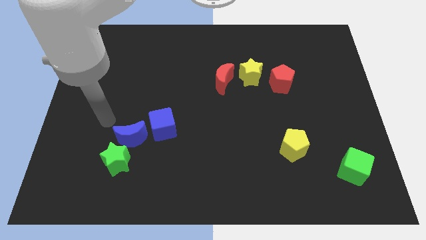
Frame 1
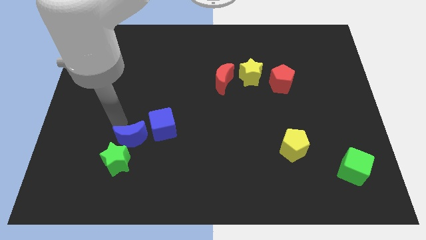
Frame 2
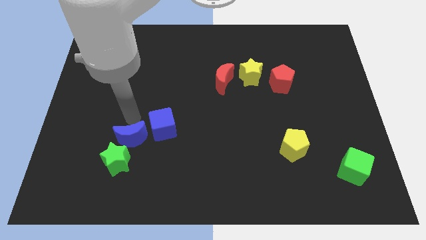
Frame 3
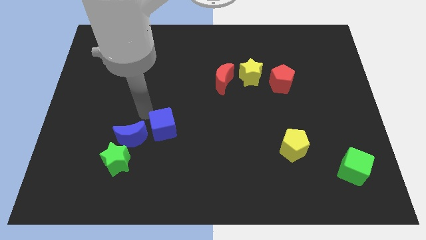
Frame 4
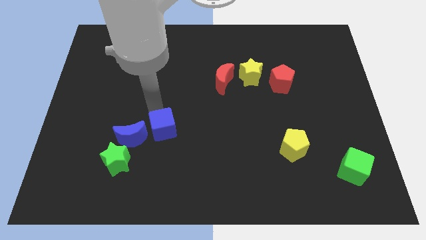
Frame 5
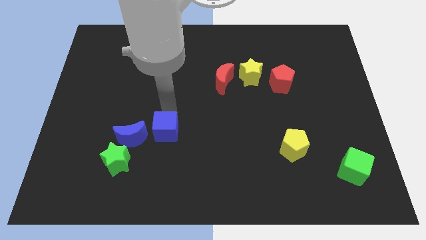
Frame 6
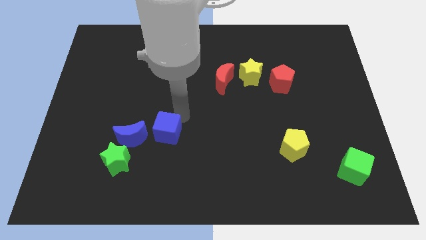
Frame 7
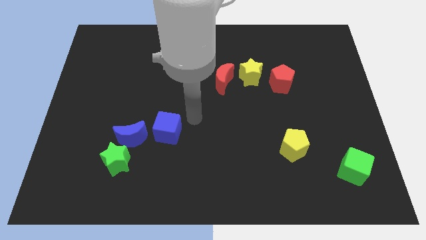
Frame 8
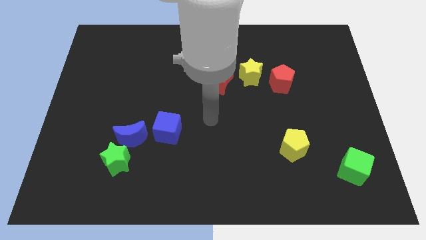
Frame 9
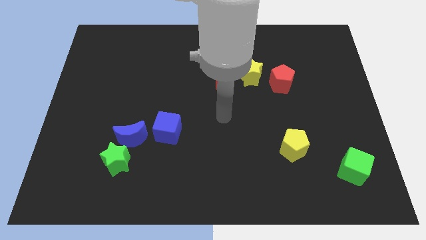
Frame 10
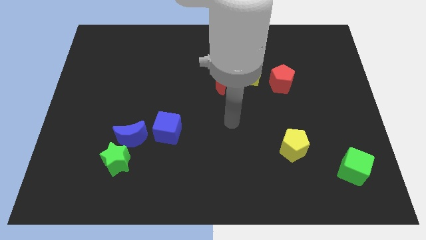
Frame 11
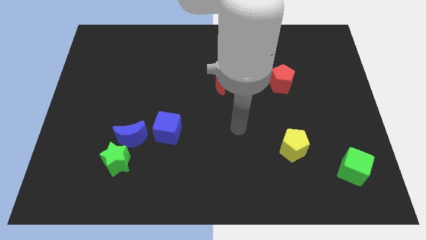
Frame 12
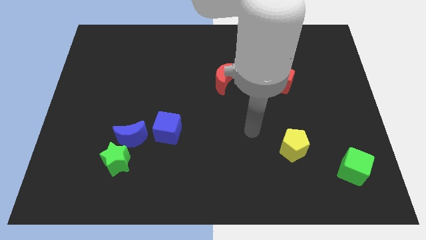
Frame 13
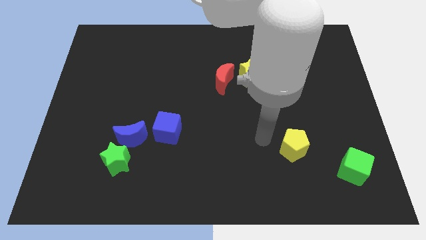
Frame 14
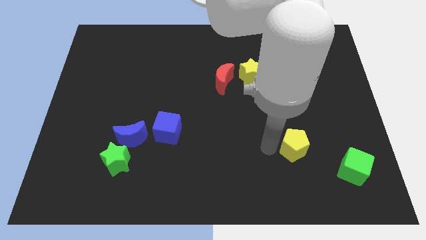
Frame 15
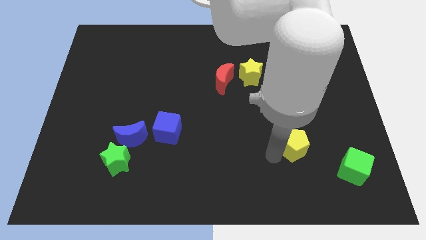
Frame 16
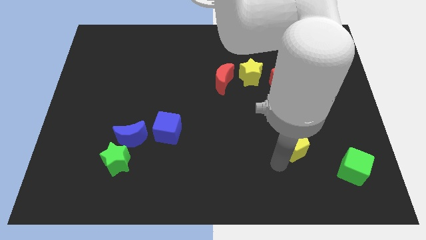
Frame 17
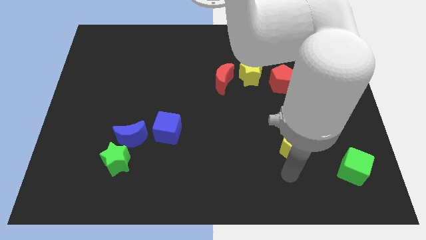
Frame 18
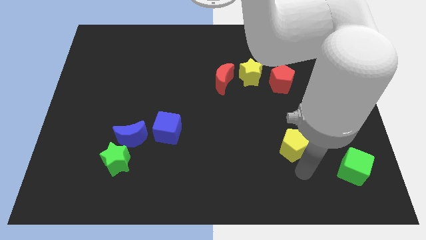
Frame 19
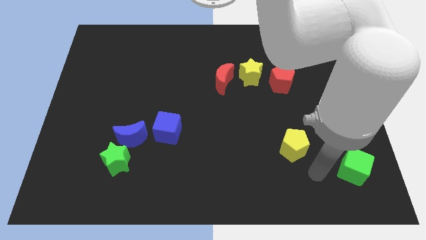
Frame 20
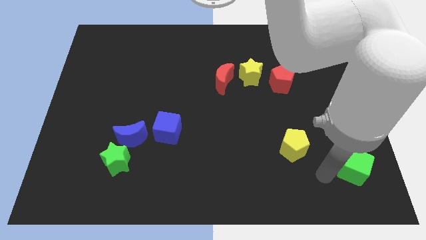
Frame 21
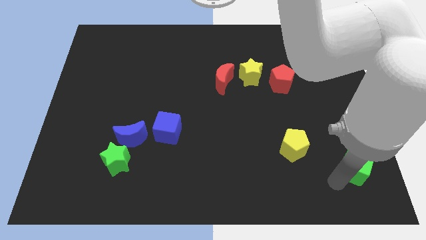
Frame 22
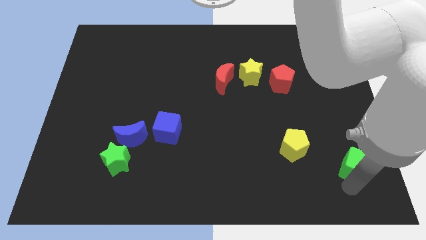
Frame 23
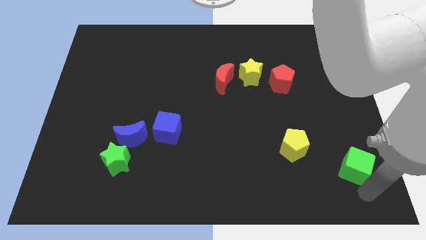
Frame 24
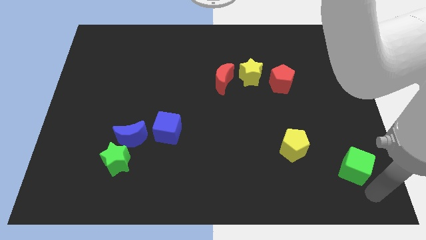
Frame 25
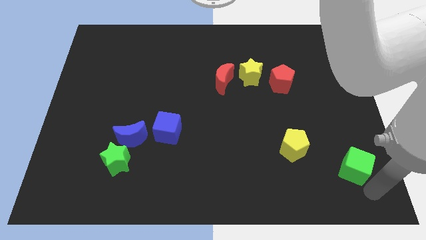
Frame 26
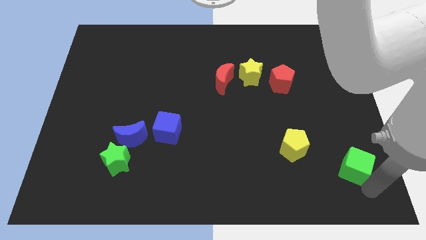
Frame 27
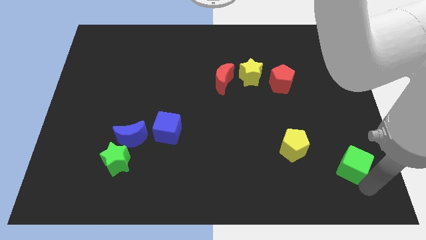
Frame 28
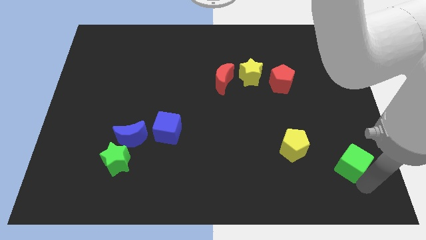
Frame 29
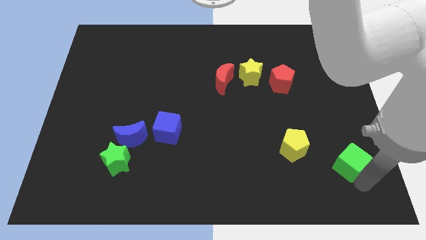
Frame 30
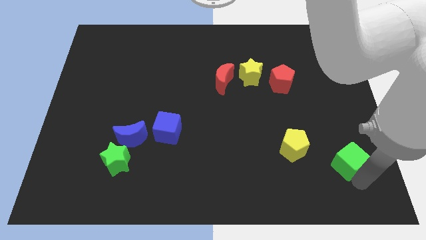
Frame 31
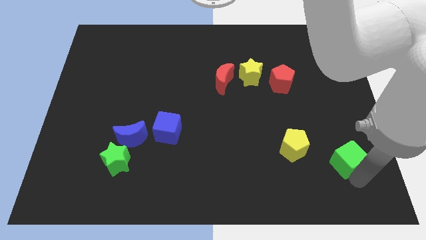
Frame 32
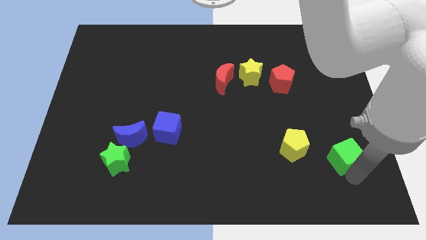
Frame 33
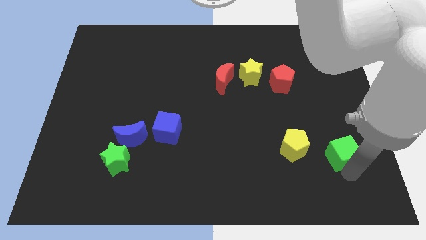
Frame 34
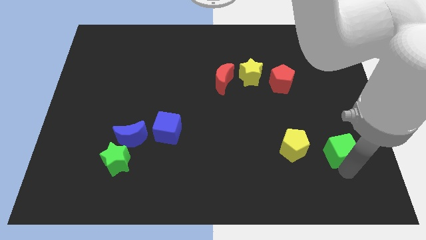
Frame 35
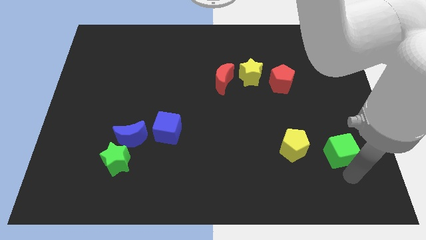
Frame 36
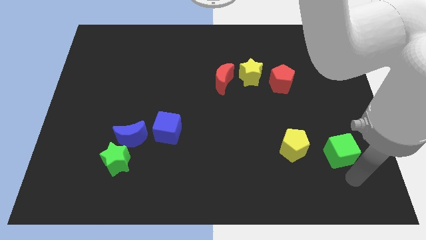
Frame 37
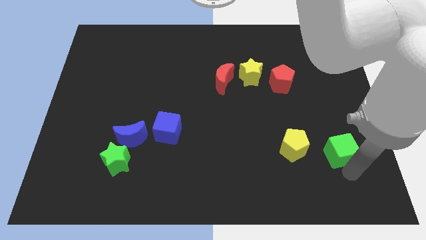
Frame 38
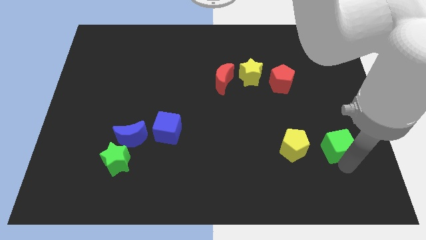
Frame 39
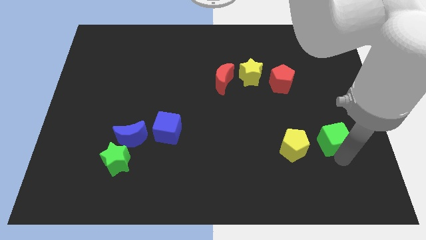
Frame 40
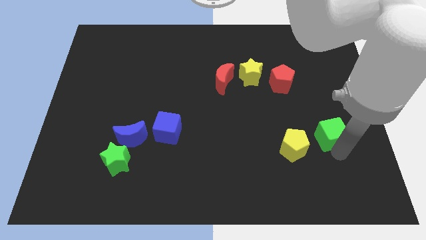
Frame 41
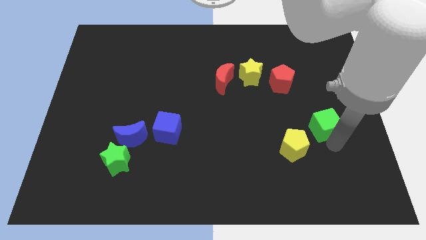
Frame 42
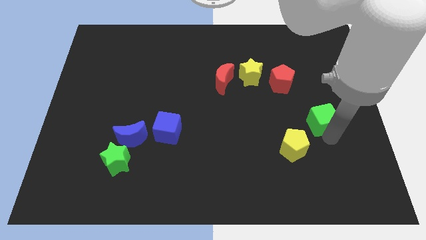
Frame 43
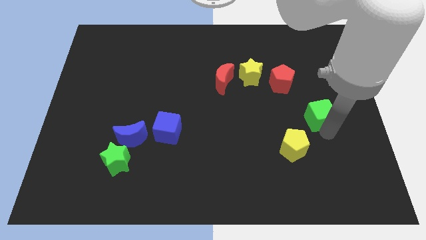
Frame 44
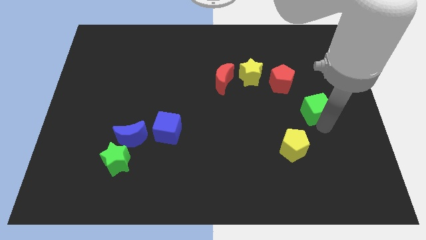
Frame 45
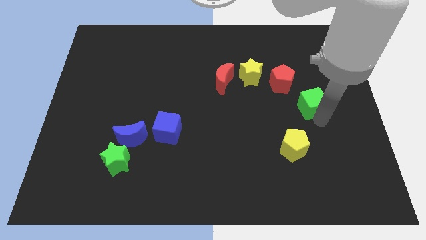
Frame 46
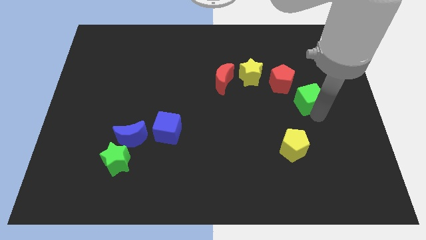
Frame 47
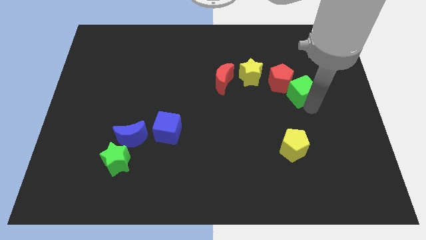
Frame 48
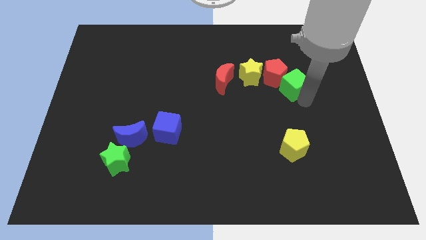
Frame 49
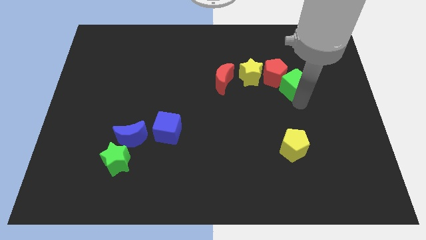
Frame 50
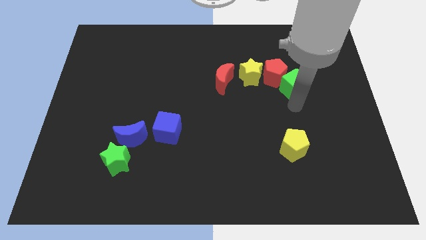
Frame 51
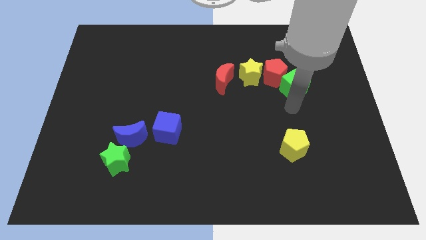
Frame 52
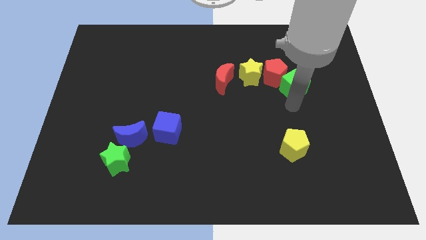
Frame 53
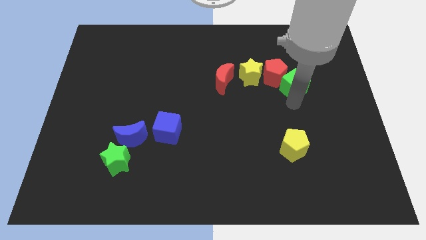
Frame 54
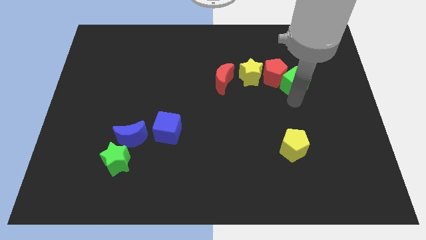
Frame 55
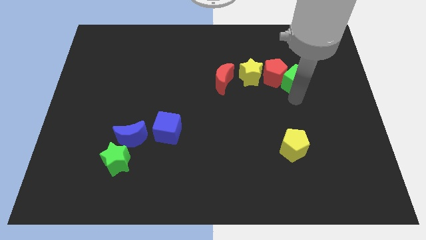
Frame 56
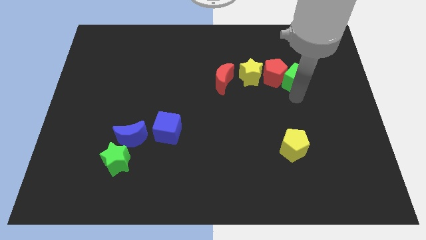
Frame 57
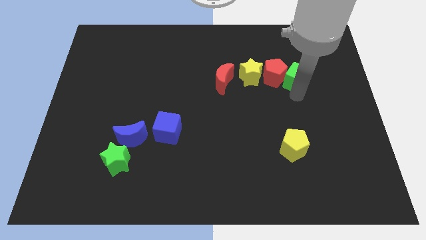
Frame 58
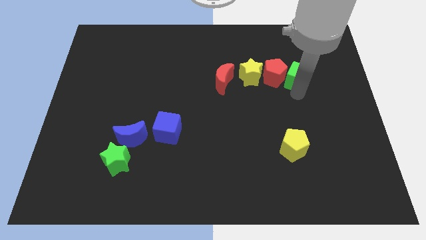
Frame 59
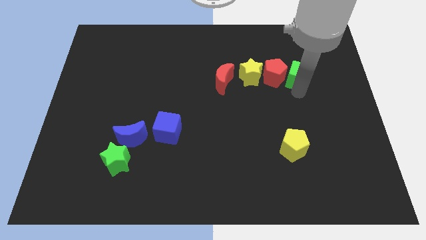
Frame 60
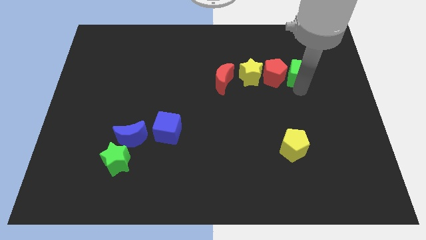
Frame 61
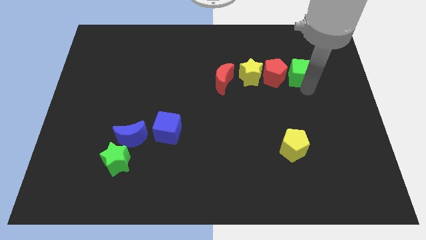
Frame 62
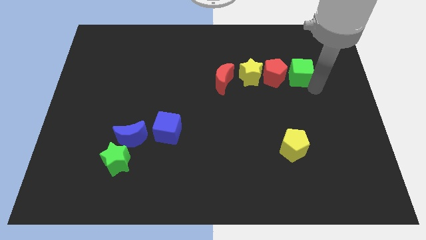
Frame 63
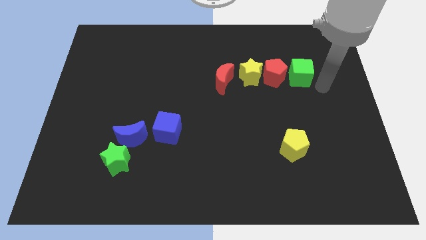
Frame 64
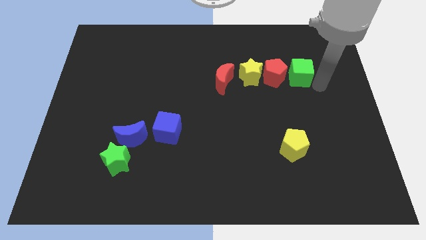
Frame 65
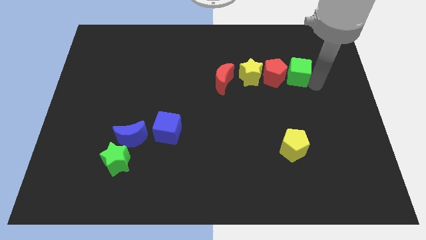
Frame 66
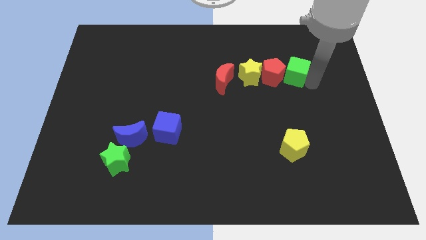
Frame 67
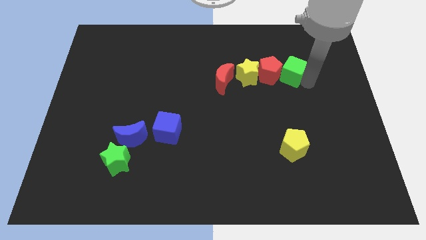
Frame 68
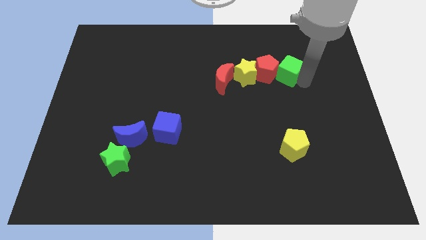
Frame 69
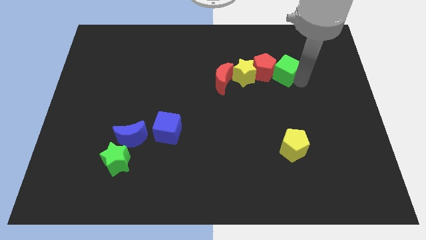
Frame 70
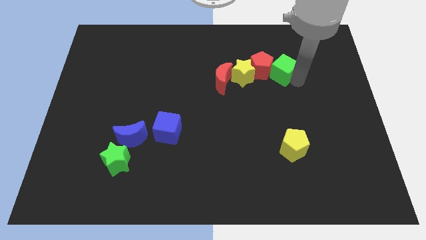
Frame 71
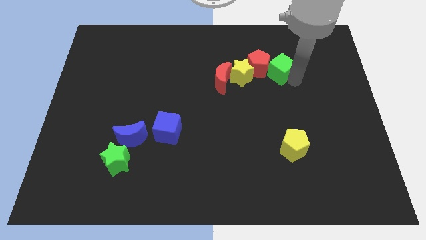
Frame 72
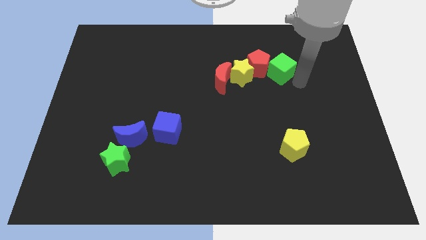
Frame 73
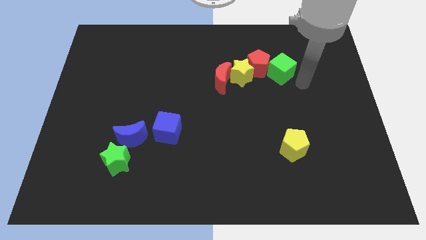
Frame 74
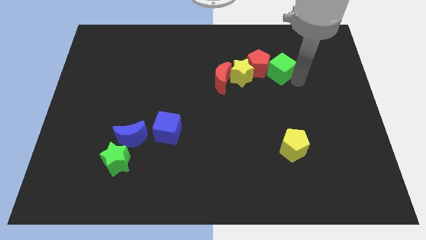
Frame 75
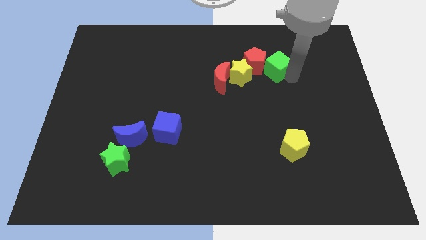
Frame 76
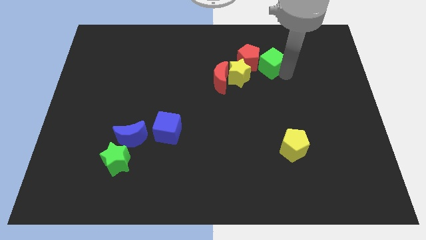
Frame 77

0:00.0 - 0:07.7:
push the green cube to the top right side of the yellow star

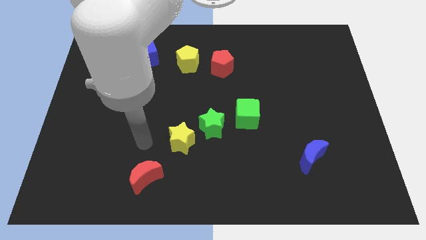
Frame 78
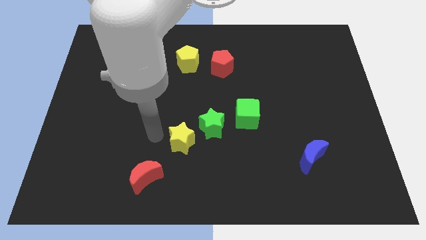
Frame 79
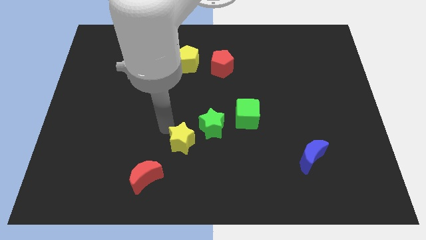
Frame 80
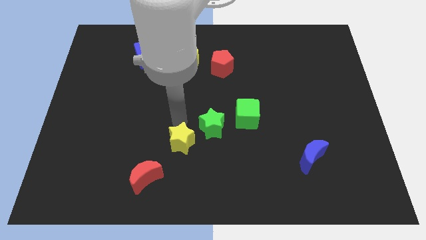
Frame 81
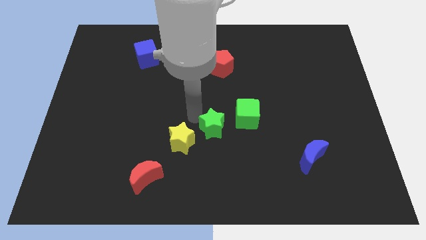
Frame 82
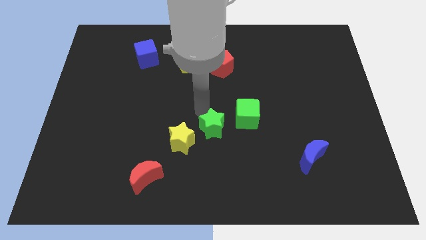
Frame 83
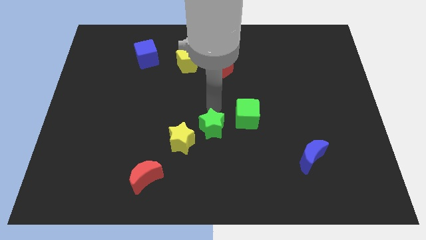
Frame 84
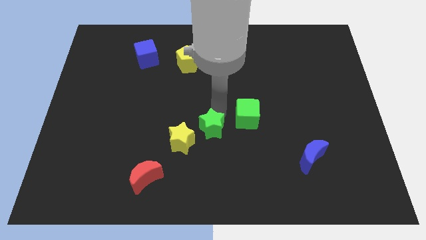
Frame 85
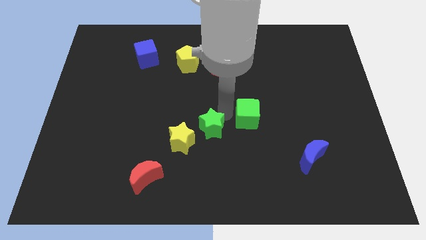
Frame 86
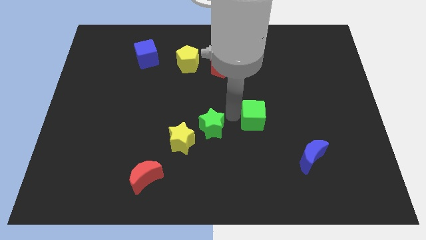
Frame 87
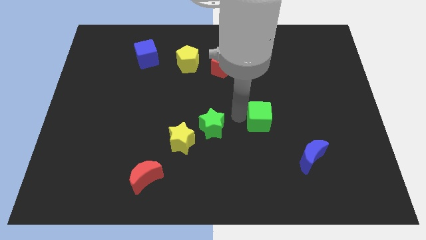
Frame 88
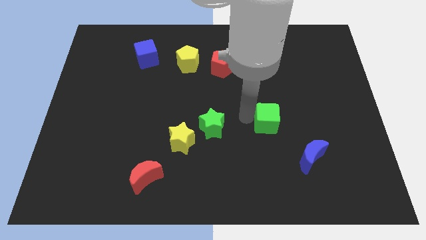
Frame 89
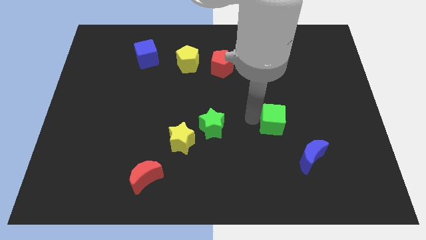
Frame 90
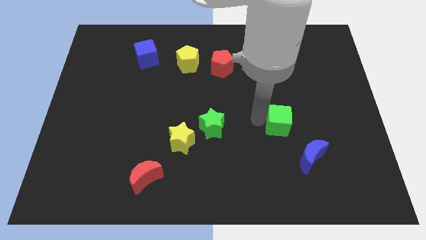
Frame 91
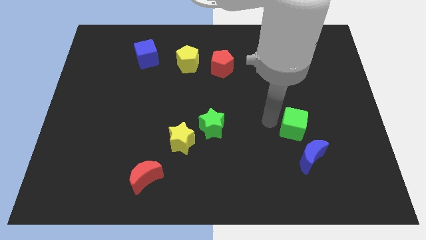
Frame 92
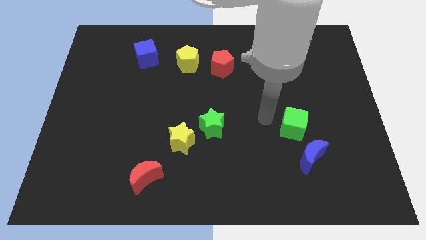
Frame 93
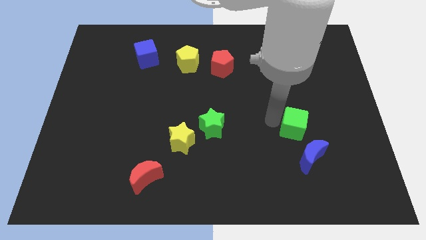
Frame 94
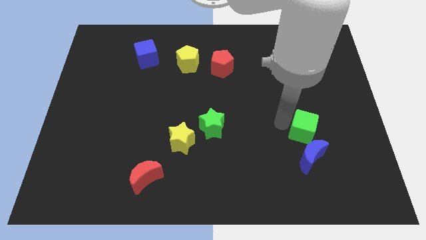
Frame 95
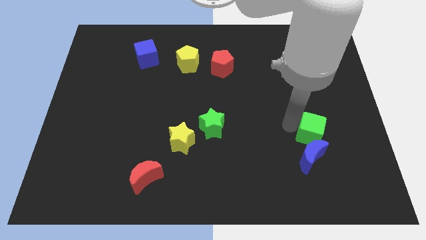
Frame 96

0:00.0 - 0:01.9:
move the green cube diagonally up and to the right of the blue moon
